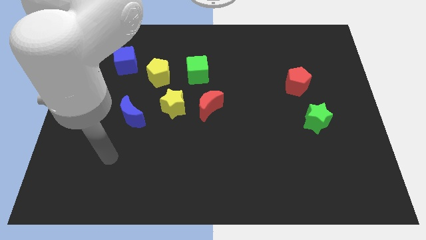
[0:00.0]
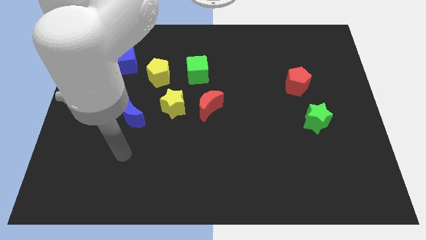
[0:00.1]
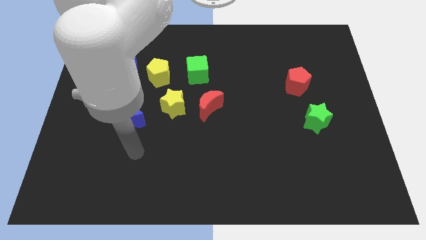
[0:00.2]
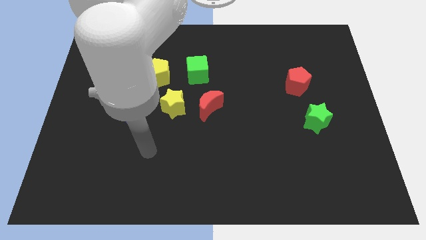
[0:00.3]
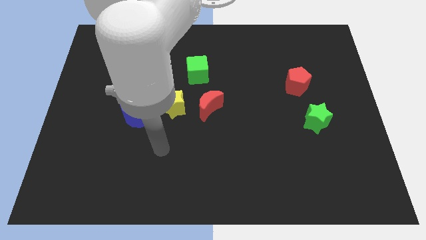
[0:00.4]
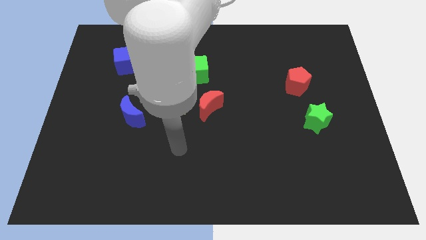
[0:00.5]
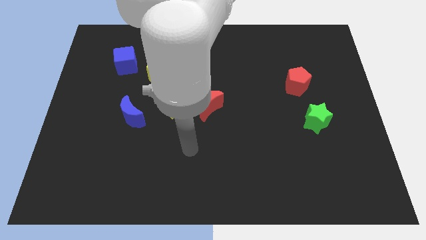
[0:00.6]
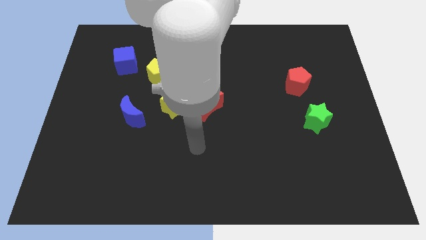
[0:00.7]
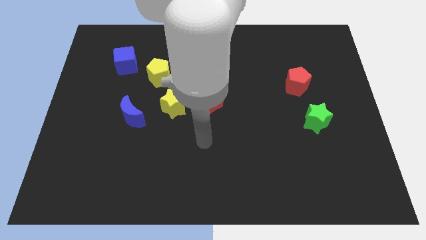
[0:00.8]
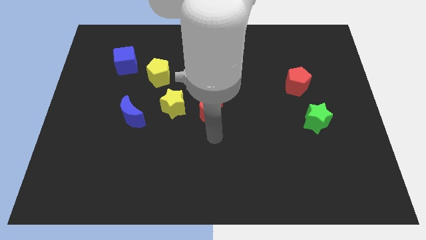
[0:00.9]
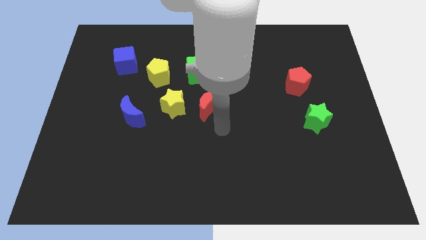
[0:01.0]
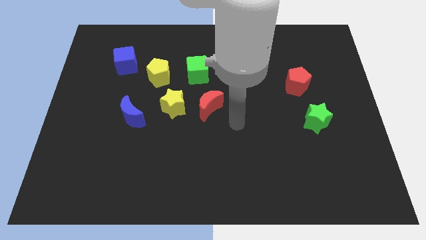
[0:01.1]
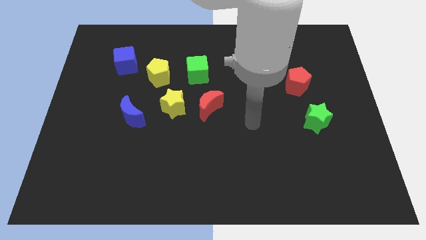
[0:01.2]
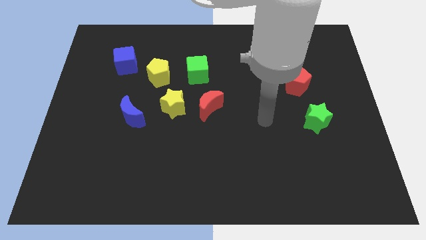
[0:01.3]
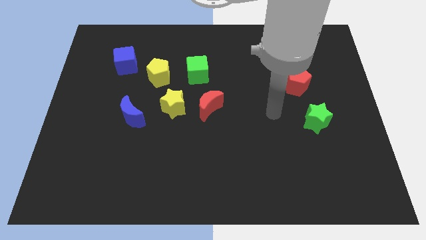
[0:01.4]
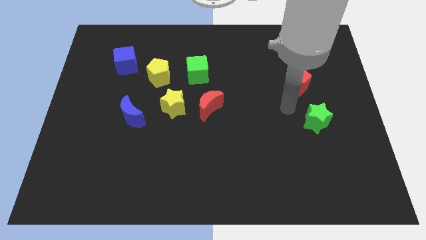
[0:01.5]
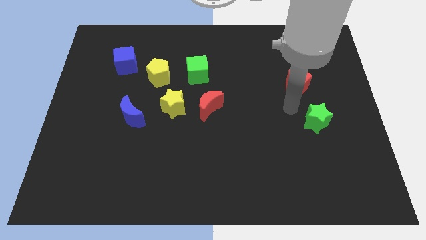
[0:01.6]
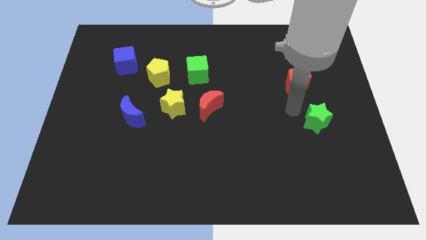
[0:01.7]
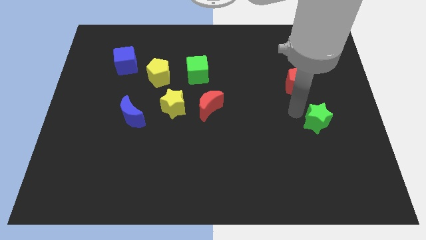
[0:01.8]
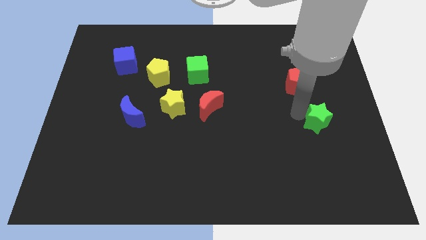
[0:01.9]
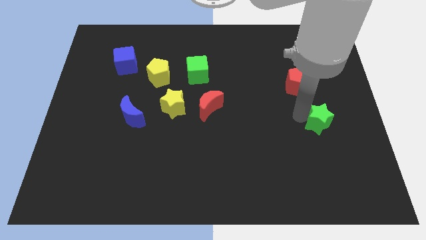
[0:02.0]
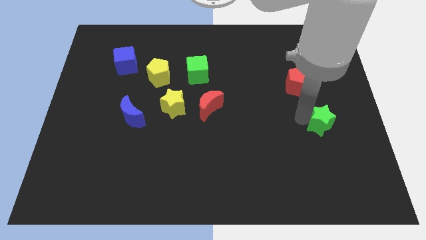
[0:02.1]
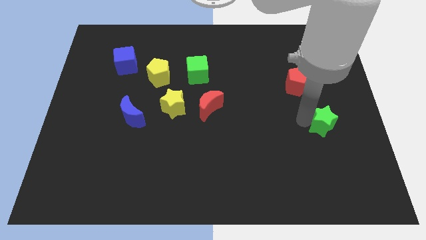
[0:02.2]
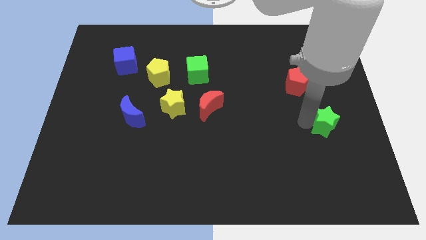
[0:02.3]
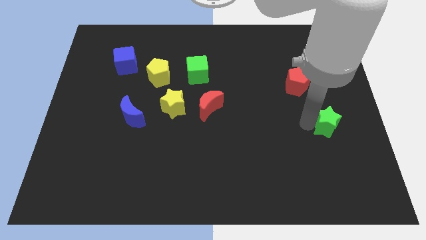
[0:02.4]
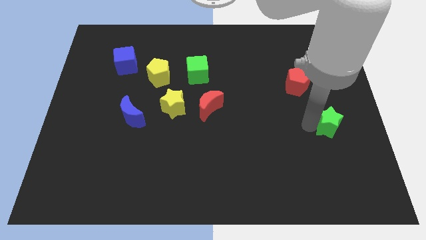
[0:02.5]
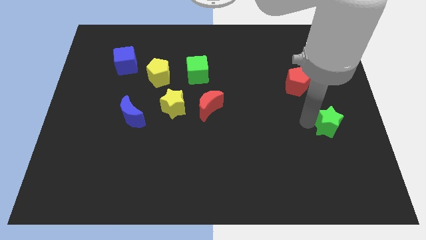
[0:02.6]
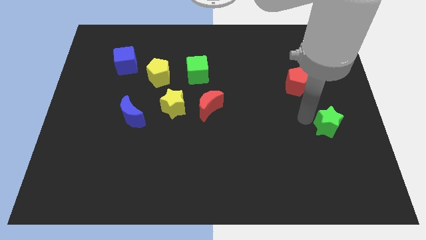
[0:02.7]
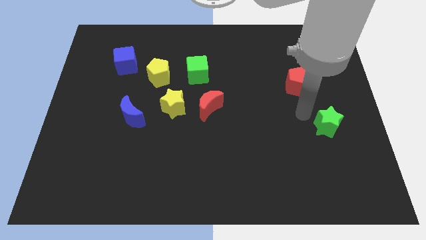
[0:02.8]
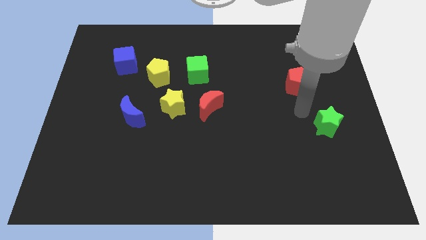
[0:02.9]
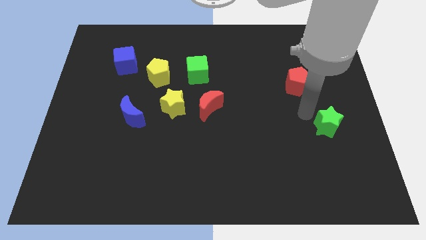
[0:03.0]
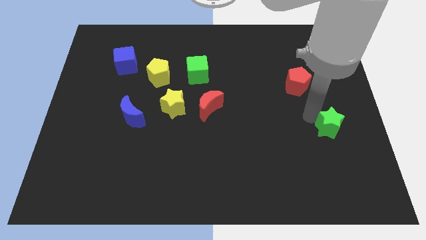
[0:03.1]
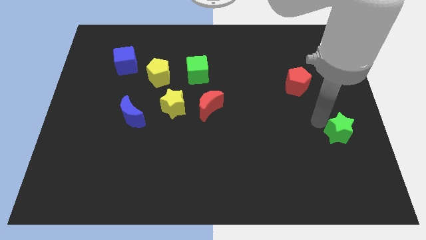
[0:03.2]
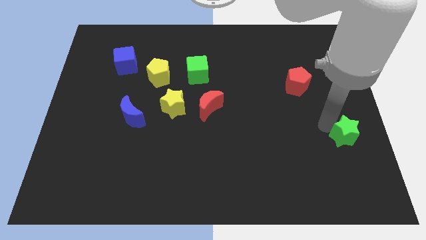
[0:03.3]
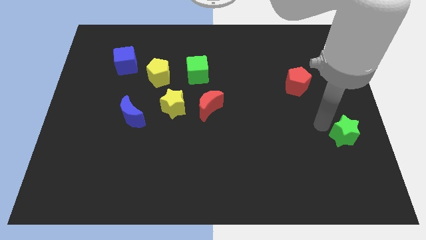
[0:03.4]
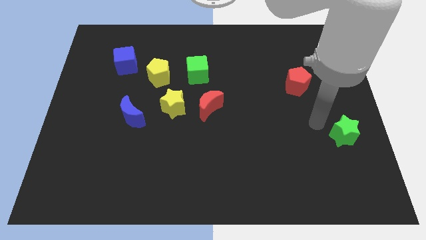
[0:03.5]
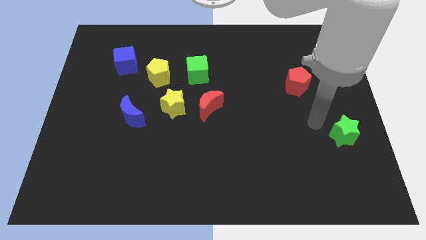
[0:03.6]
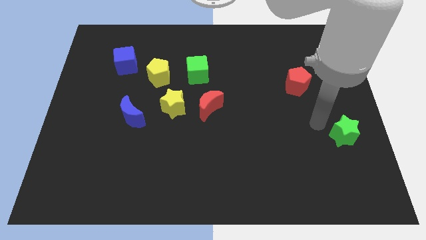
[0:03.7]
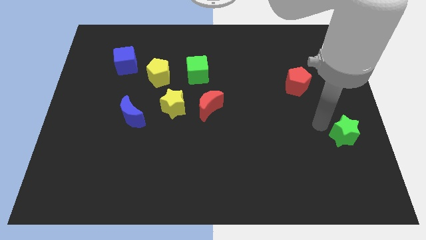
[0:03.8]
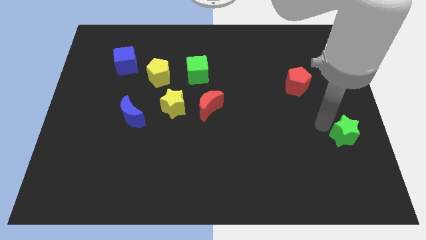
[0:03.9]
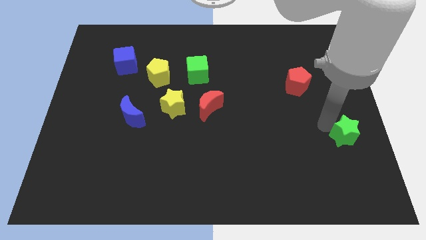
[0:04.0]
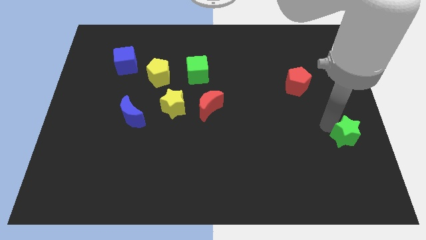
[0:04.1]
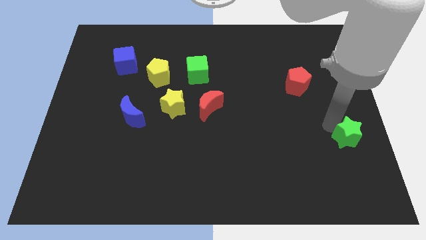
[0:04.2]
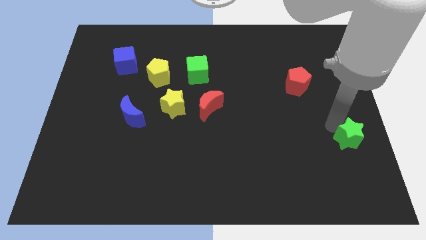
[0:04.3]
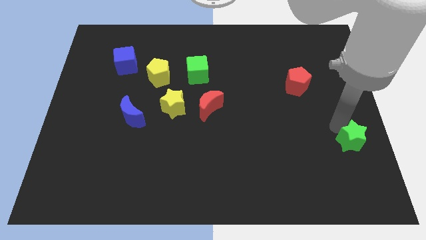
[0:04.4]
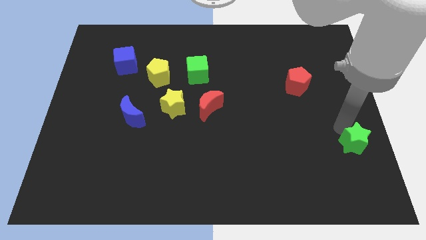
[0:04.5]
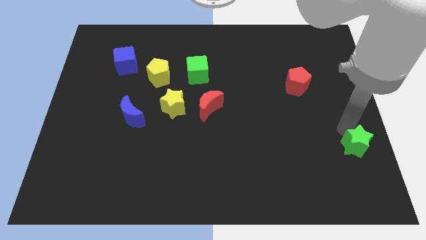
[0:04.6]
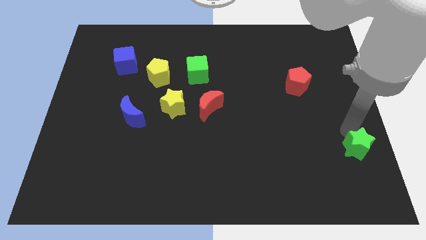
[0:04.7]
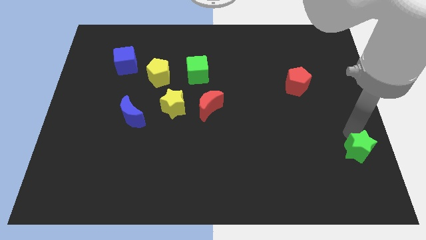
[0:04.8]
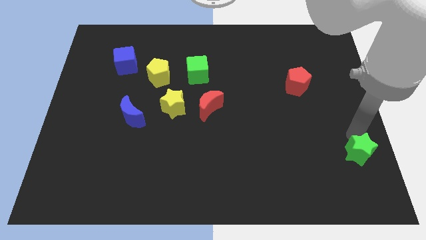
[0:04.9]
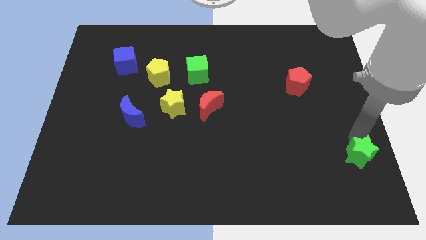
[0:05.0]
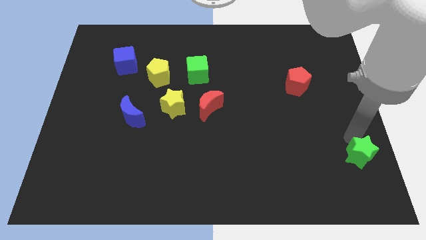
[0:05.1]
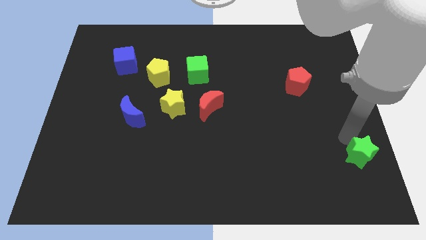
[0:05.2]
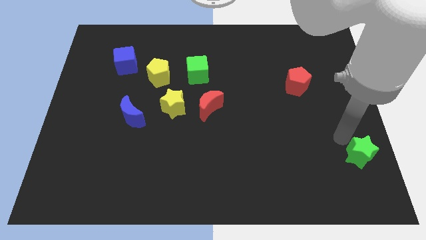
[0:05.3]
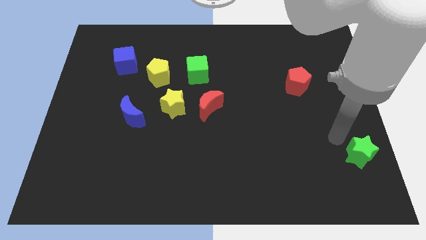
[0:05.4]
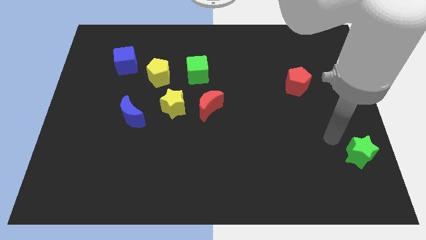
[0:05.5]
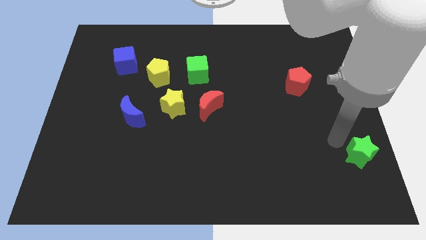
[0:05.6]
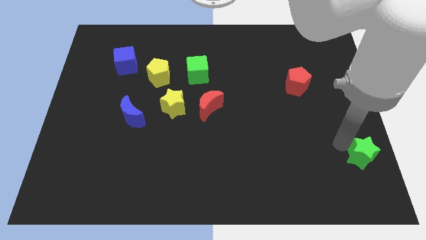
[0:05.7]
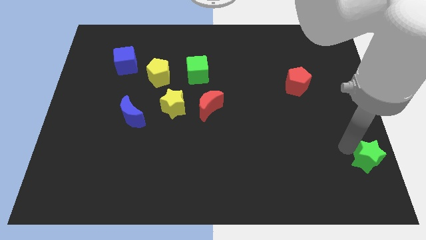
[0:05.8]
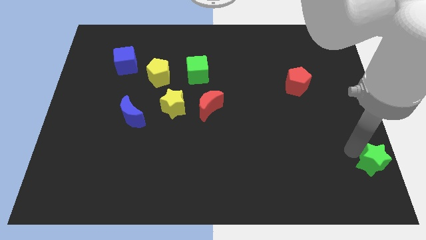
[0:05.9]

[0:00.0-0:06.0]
slide the green star to the bottom right corner

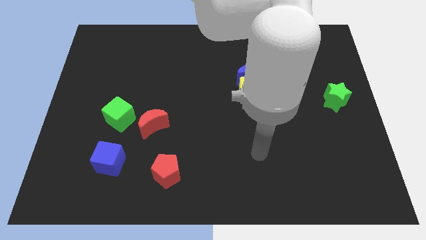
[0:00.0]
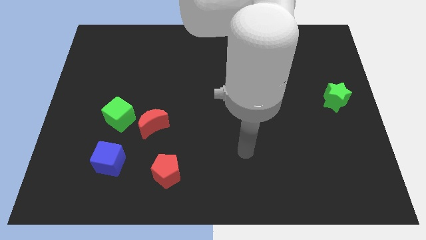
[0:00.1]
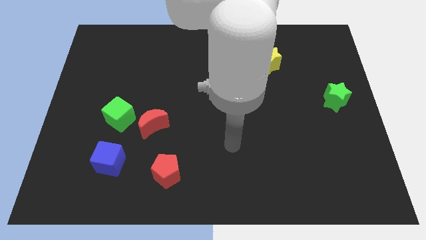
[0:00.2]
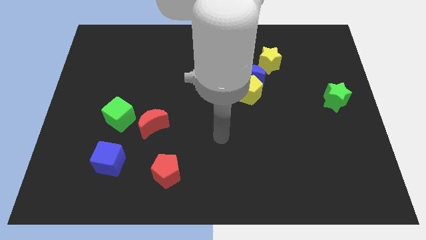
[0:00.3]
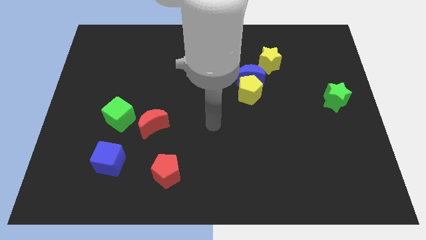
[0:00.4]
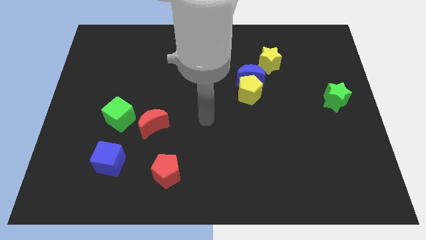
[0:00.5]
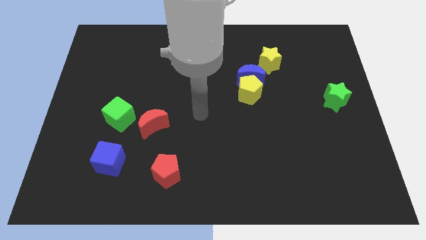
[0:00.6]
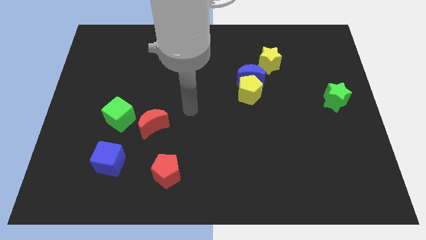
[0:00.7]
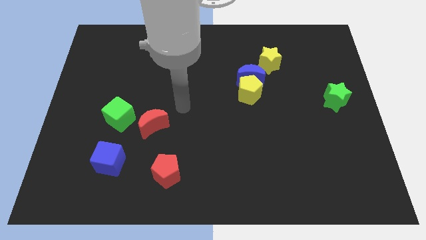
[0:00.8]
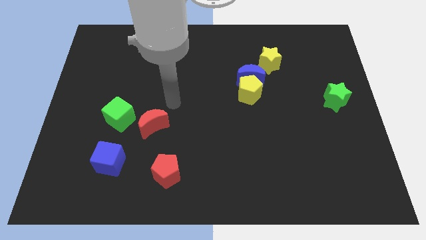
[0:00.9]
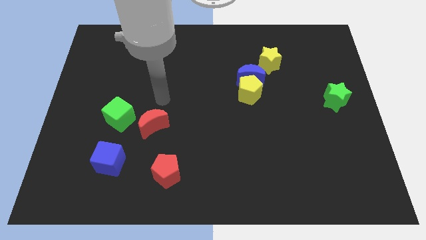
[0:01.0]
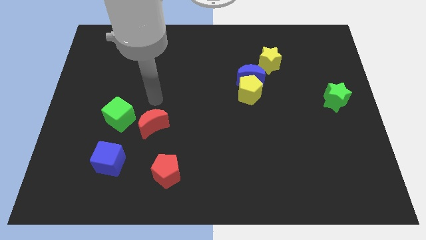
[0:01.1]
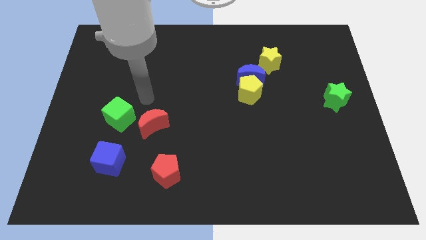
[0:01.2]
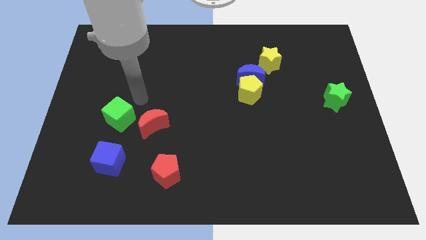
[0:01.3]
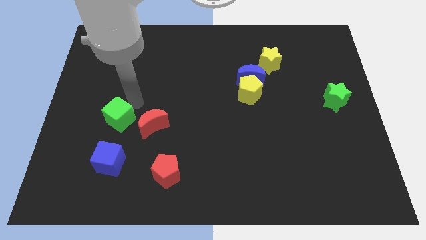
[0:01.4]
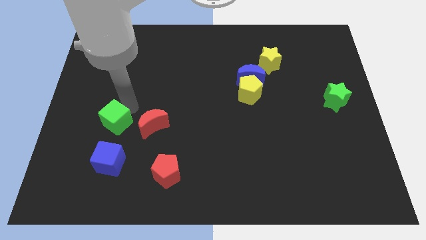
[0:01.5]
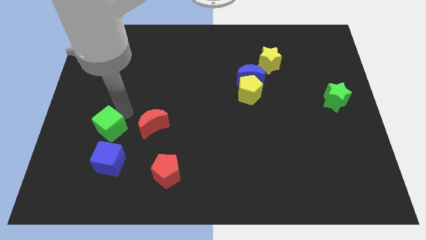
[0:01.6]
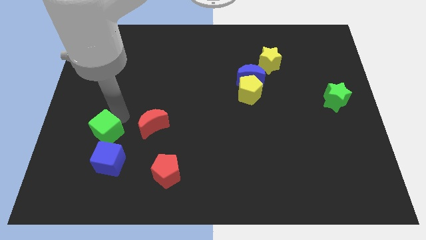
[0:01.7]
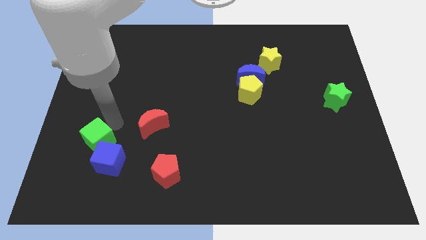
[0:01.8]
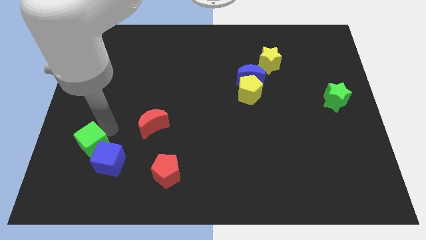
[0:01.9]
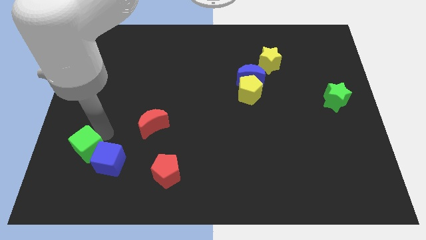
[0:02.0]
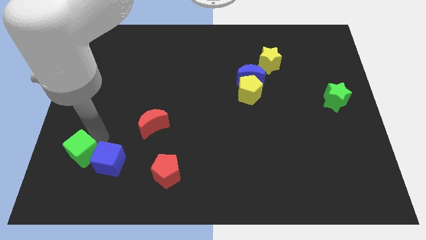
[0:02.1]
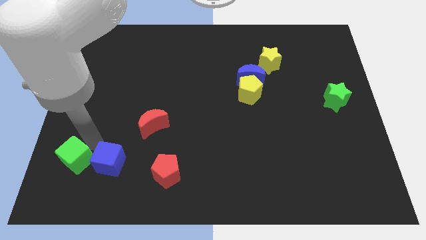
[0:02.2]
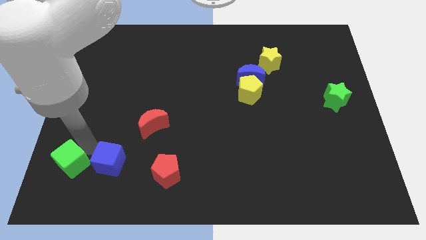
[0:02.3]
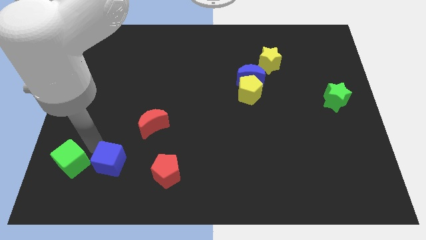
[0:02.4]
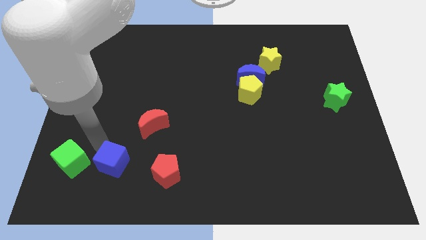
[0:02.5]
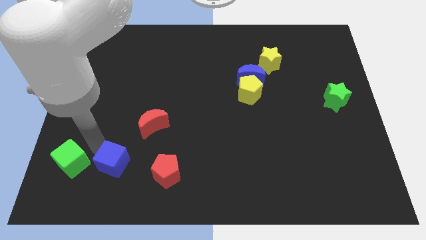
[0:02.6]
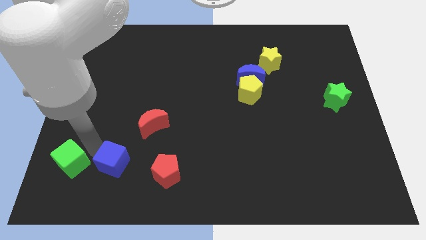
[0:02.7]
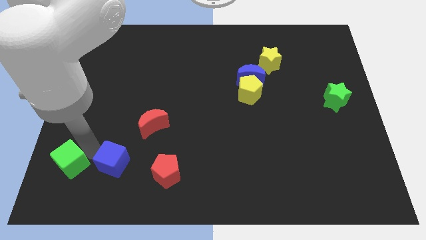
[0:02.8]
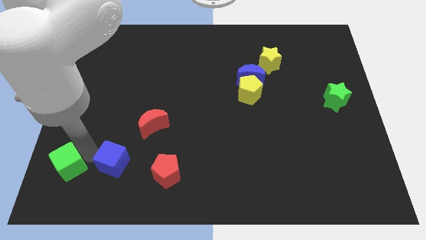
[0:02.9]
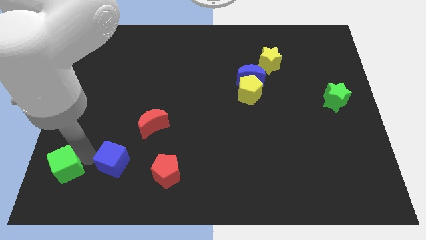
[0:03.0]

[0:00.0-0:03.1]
move the green cube to the bottom left corner
